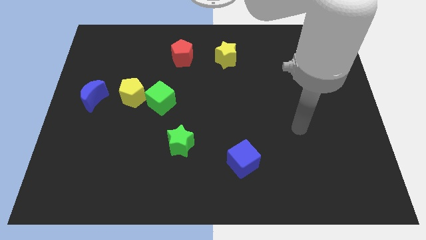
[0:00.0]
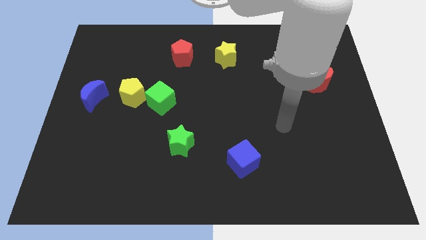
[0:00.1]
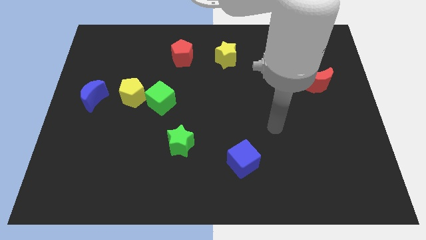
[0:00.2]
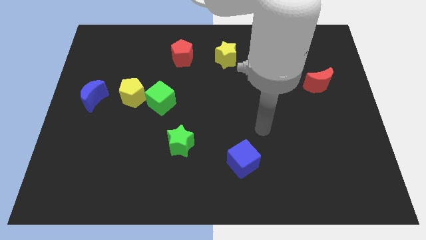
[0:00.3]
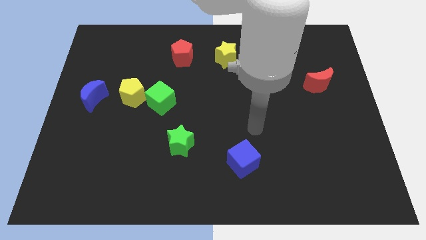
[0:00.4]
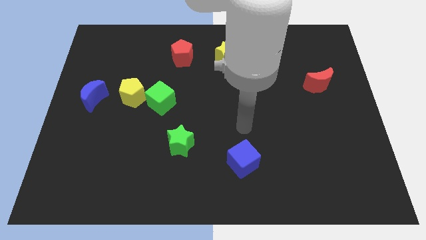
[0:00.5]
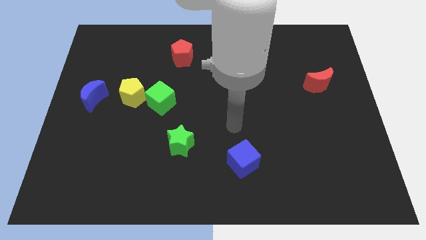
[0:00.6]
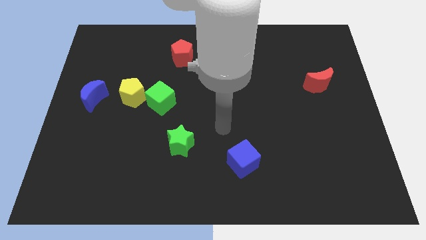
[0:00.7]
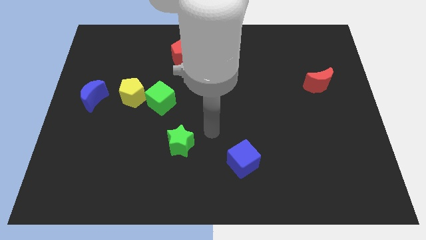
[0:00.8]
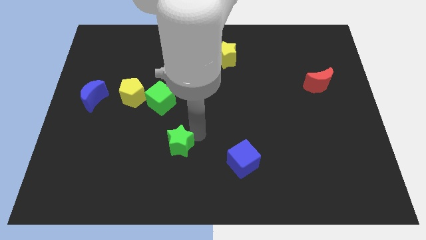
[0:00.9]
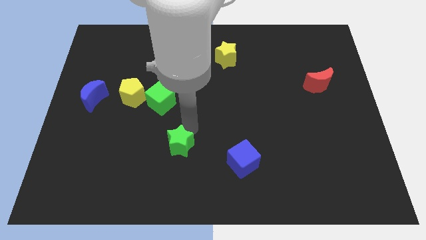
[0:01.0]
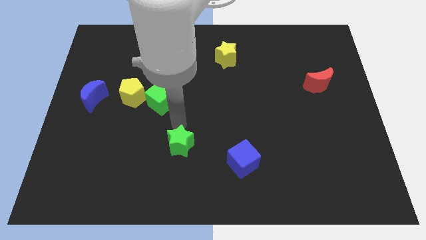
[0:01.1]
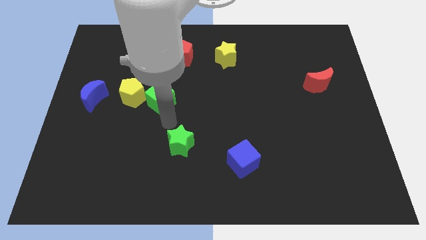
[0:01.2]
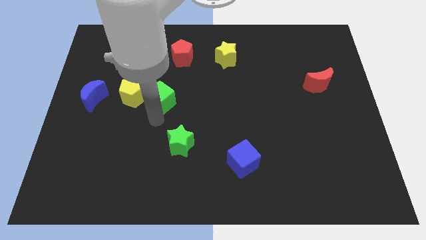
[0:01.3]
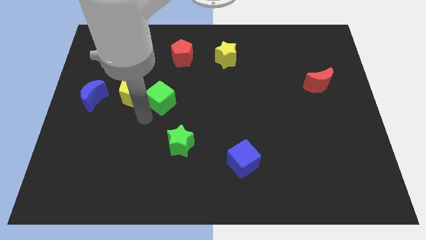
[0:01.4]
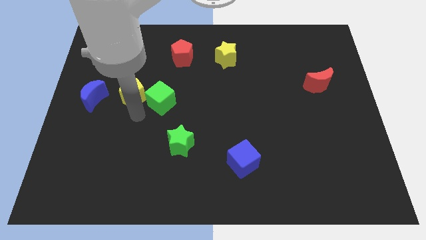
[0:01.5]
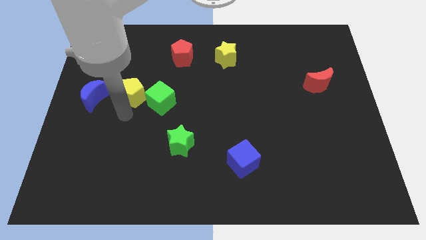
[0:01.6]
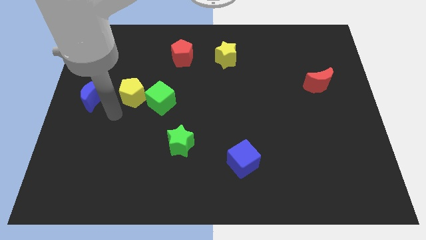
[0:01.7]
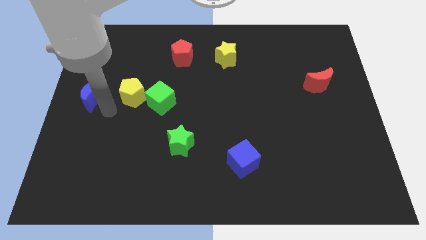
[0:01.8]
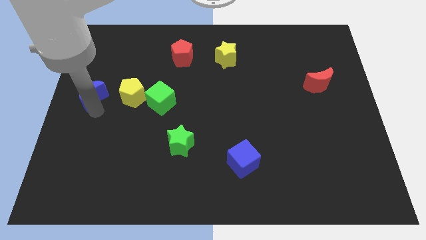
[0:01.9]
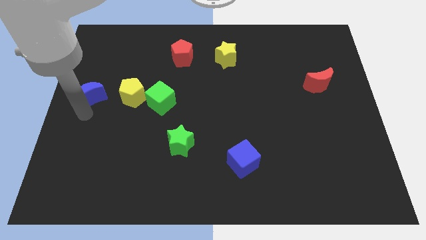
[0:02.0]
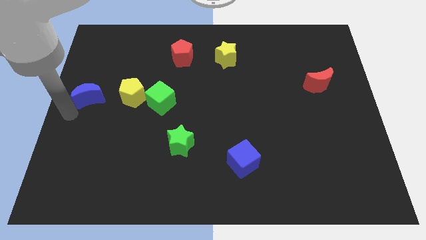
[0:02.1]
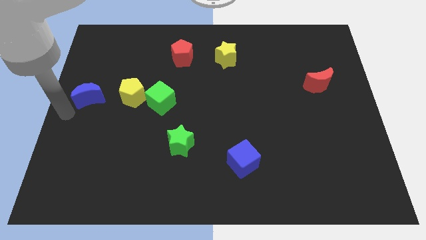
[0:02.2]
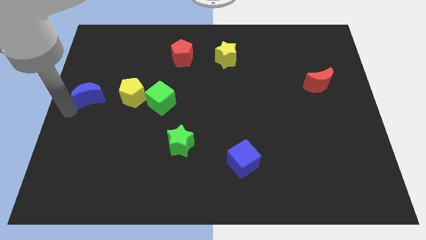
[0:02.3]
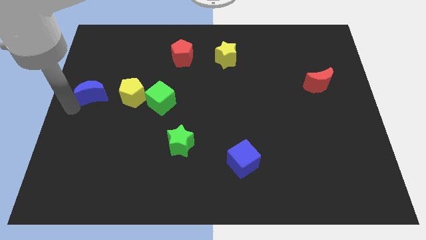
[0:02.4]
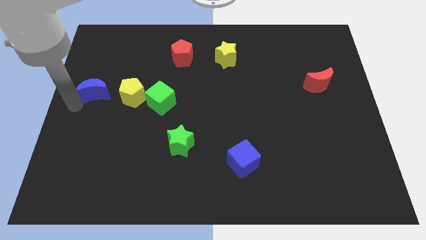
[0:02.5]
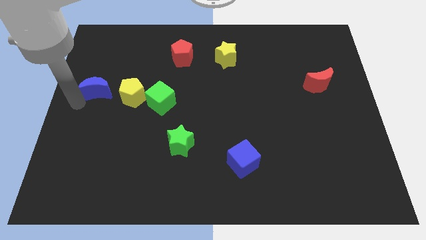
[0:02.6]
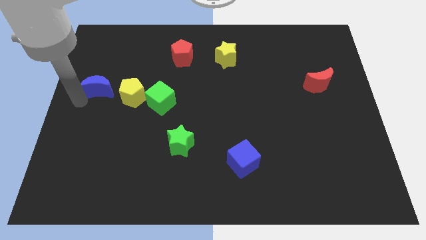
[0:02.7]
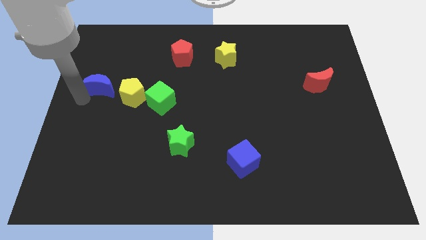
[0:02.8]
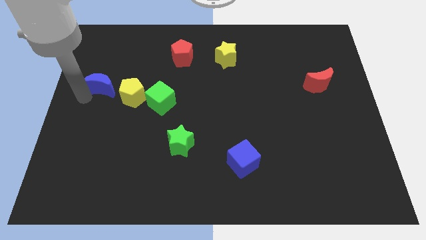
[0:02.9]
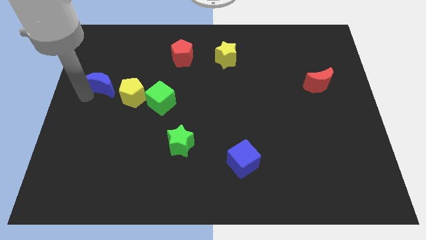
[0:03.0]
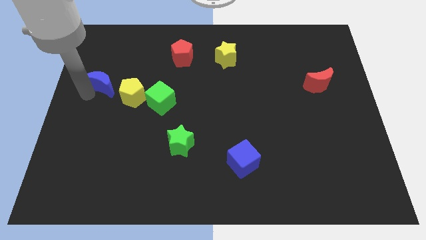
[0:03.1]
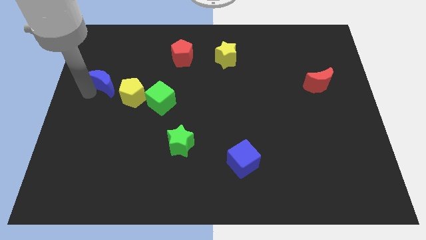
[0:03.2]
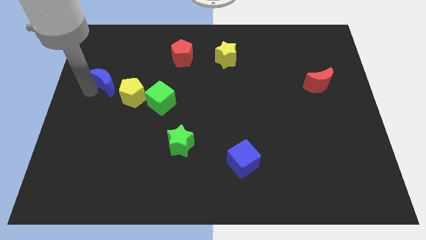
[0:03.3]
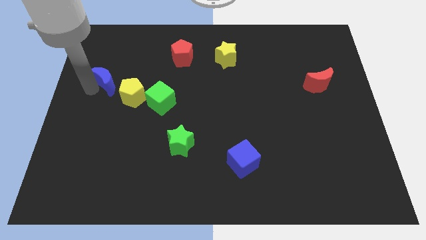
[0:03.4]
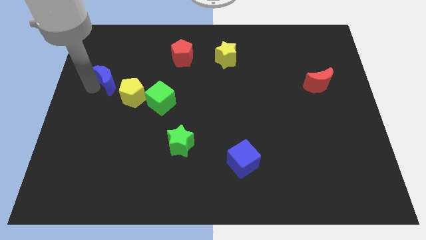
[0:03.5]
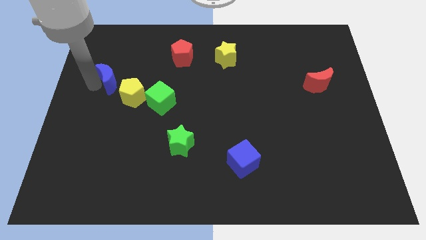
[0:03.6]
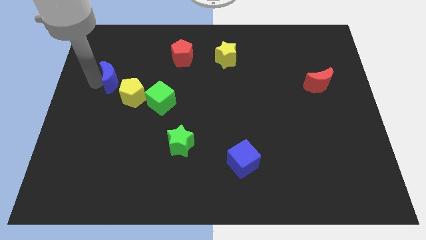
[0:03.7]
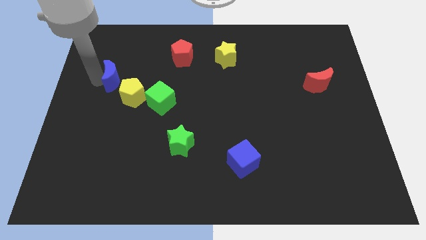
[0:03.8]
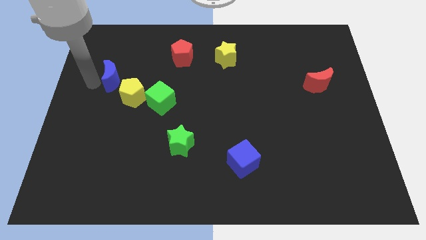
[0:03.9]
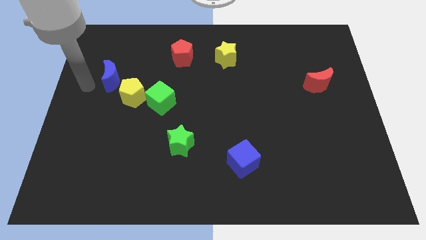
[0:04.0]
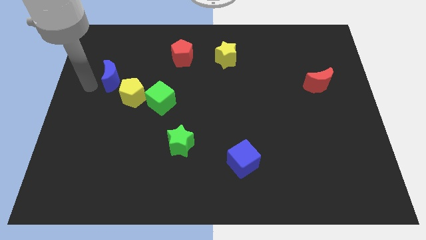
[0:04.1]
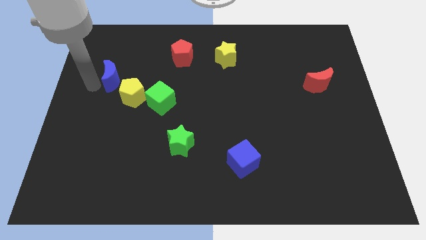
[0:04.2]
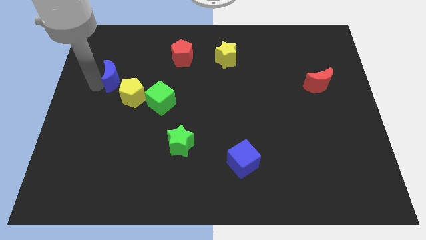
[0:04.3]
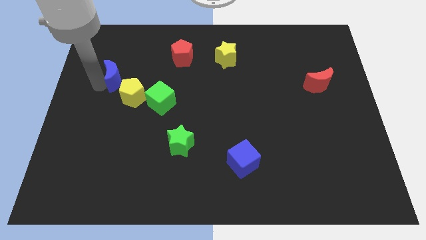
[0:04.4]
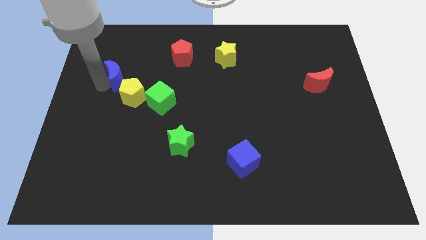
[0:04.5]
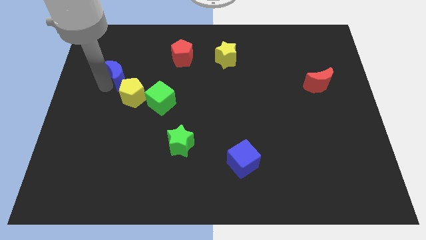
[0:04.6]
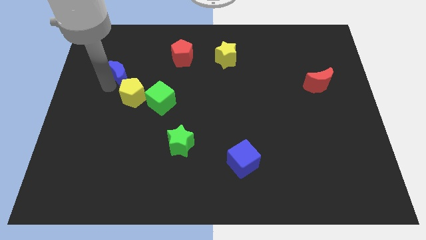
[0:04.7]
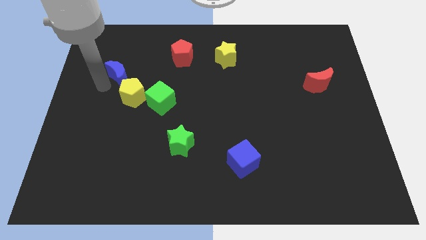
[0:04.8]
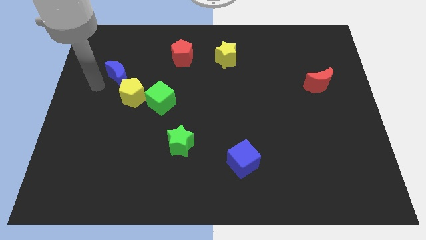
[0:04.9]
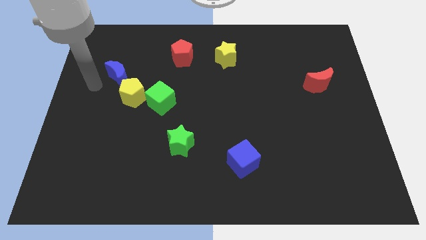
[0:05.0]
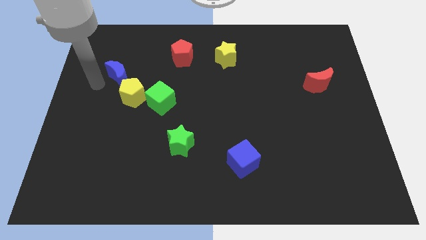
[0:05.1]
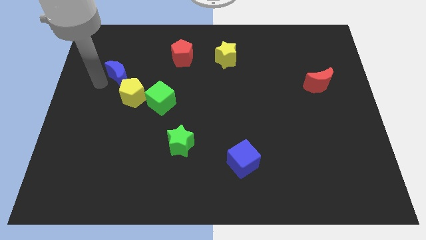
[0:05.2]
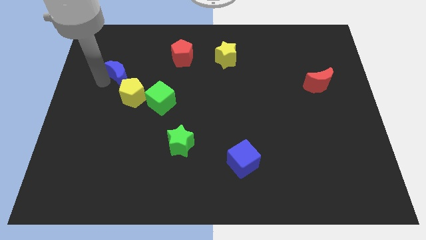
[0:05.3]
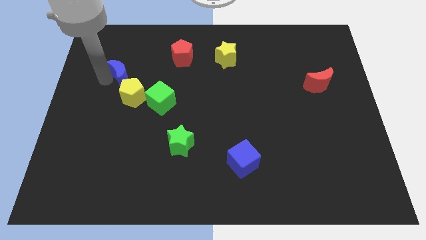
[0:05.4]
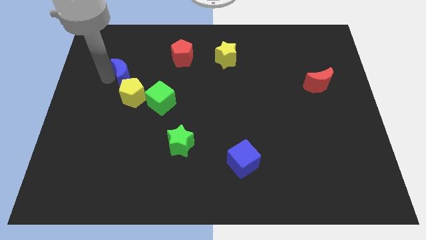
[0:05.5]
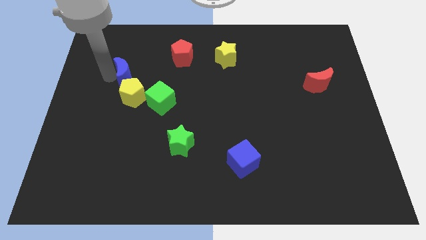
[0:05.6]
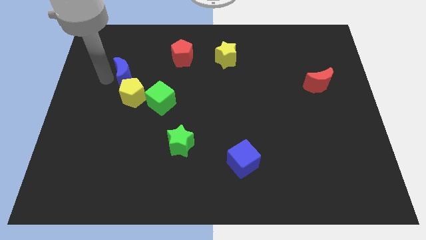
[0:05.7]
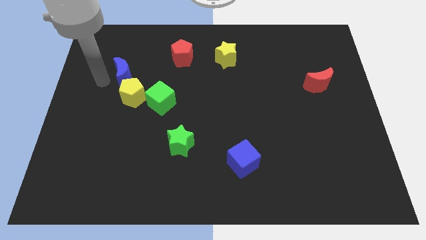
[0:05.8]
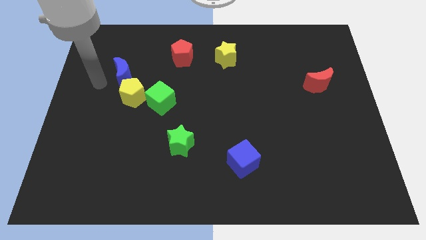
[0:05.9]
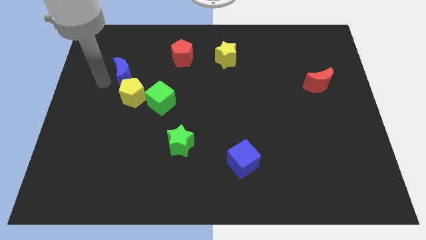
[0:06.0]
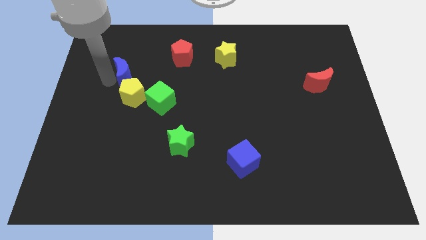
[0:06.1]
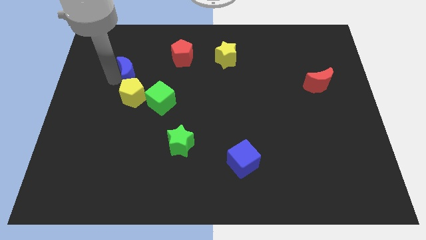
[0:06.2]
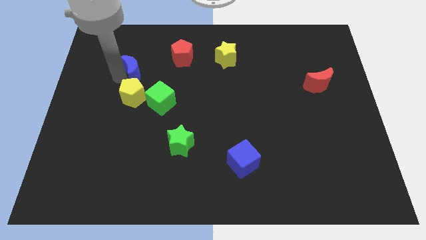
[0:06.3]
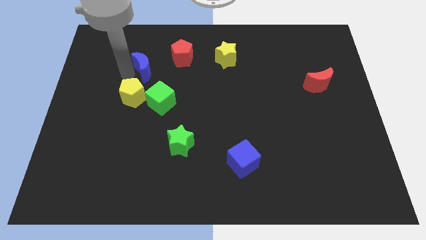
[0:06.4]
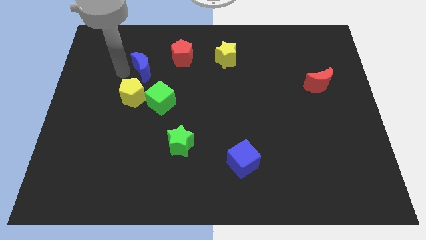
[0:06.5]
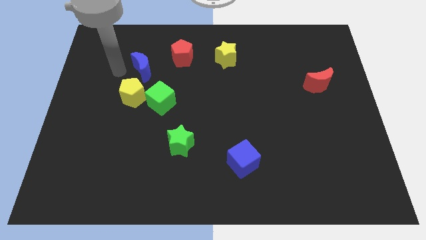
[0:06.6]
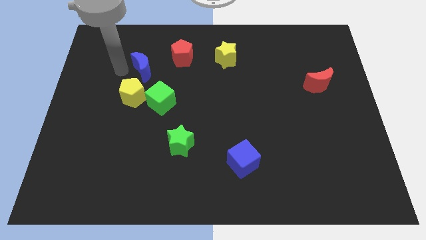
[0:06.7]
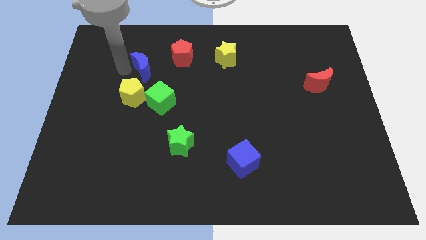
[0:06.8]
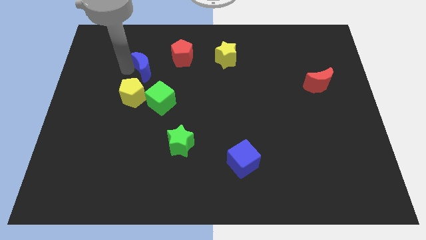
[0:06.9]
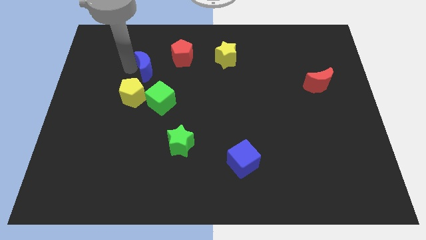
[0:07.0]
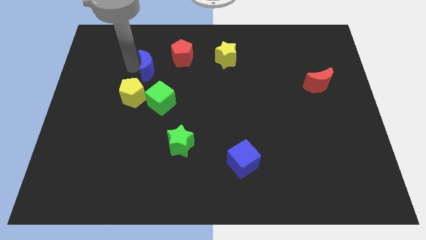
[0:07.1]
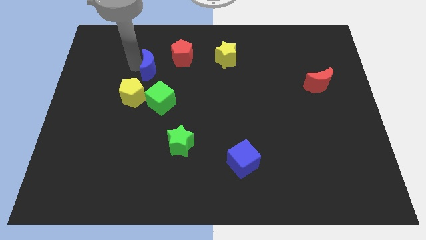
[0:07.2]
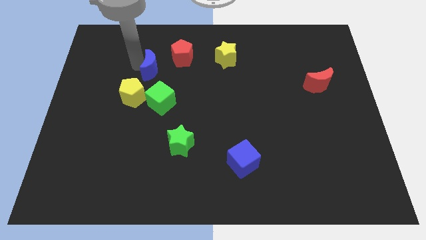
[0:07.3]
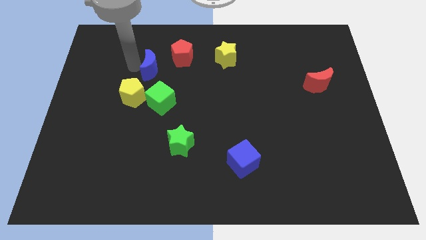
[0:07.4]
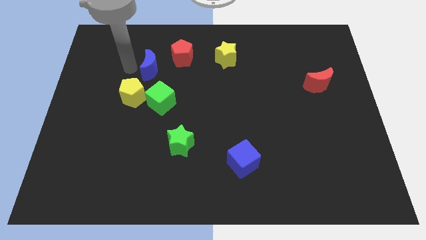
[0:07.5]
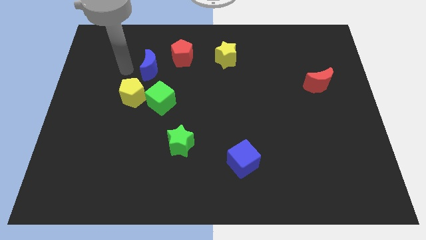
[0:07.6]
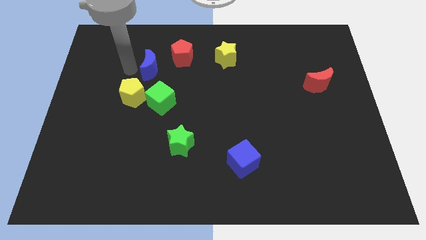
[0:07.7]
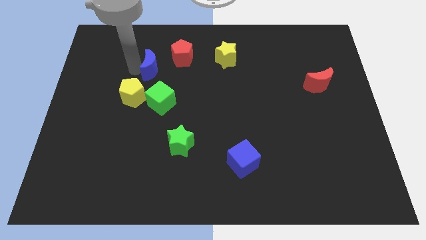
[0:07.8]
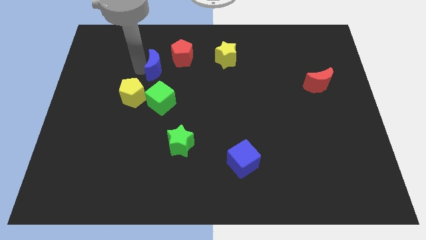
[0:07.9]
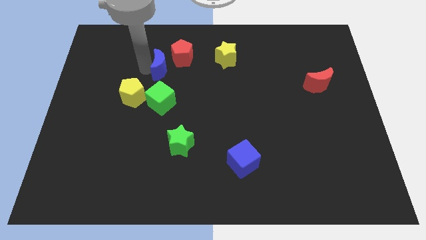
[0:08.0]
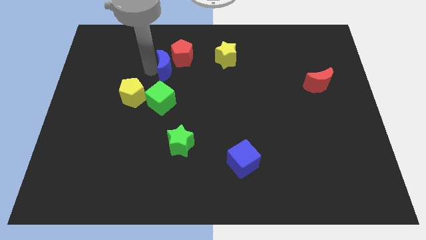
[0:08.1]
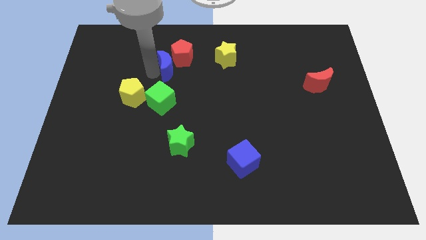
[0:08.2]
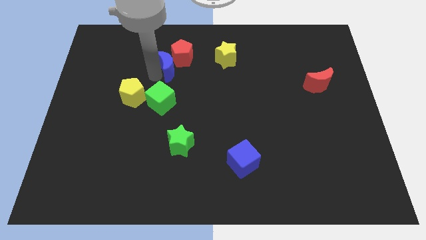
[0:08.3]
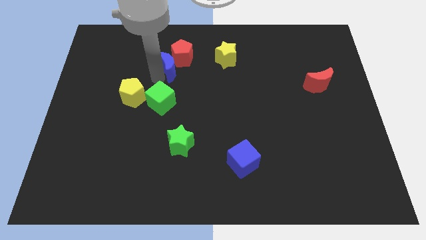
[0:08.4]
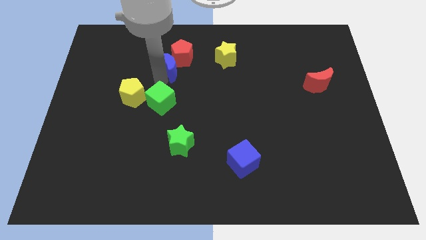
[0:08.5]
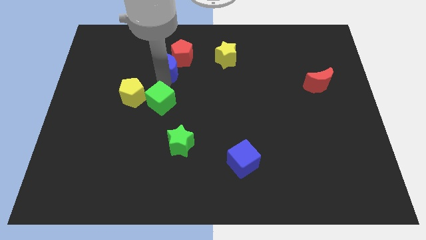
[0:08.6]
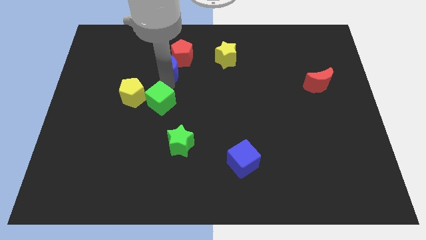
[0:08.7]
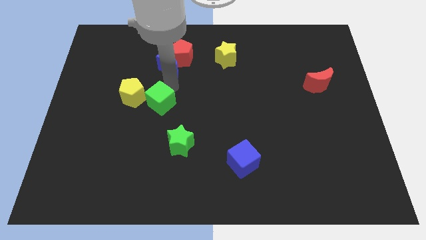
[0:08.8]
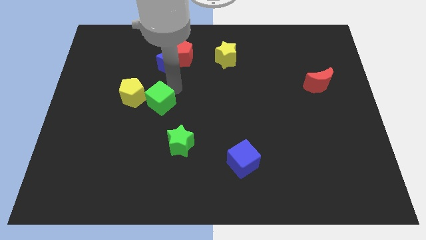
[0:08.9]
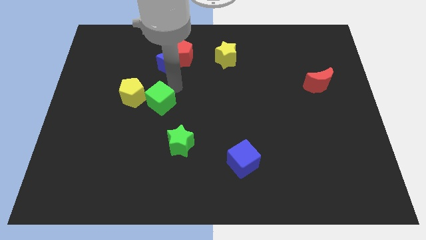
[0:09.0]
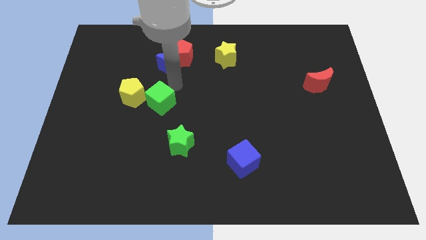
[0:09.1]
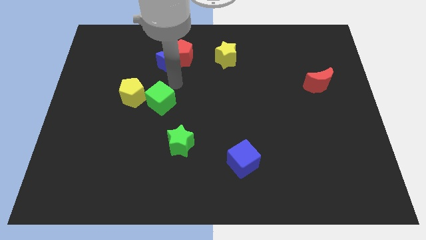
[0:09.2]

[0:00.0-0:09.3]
push the blue moon left of the yellow star
